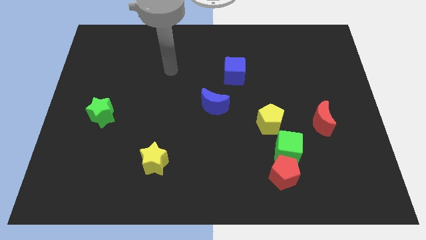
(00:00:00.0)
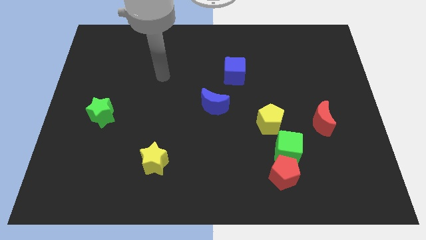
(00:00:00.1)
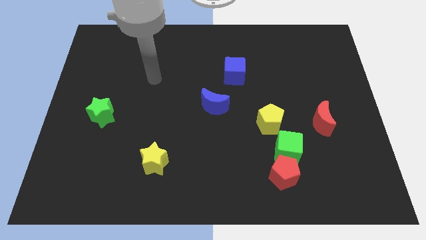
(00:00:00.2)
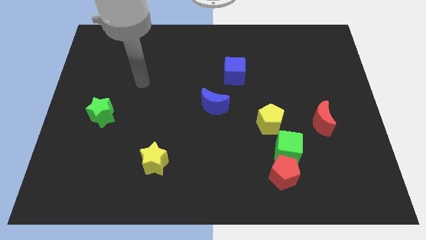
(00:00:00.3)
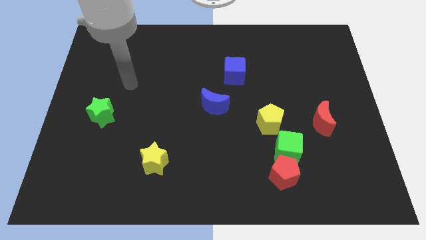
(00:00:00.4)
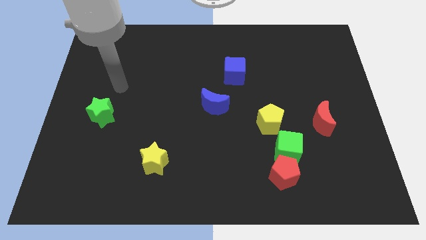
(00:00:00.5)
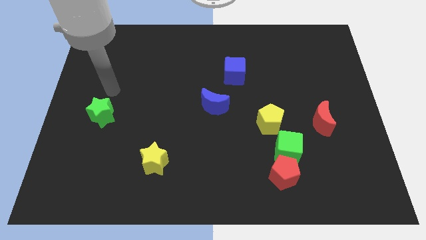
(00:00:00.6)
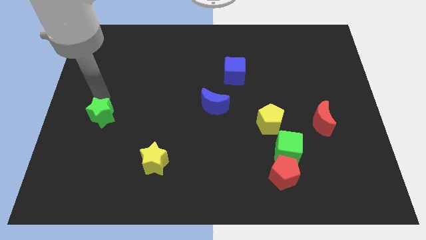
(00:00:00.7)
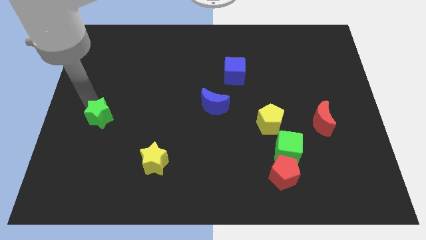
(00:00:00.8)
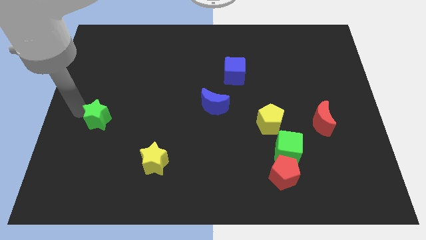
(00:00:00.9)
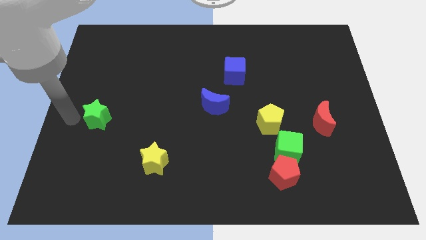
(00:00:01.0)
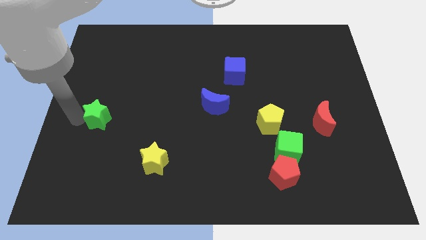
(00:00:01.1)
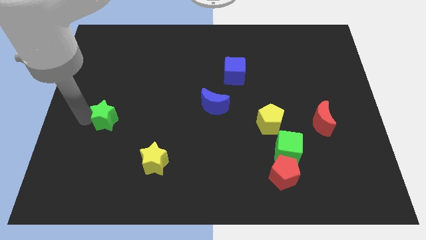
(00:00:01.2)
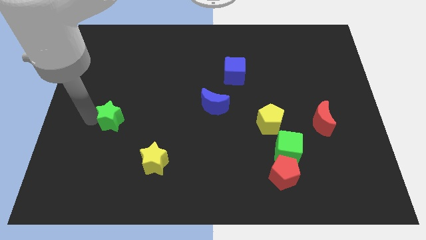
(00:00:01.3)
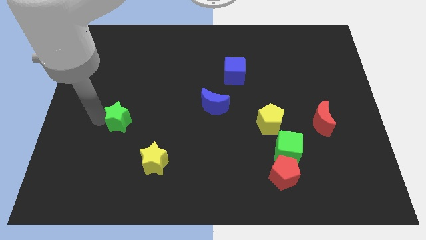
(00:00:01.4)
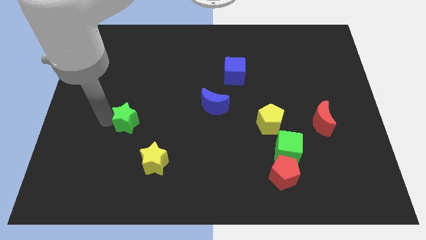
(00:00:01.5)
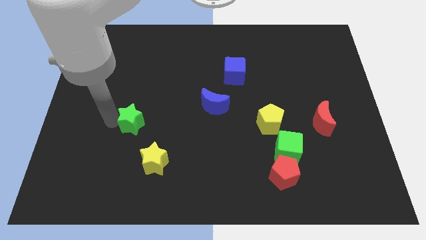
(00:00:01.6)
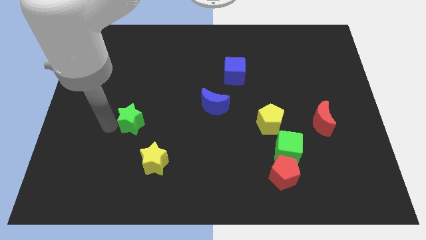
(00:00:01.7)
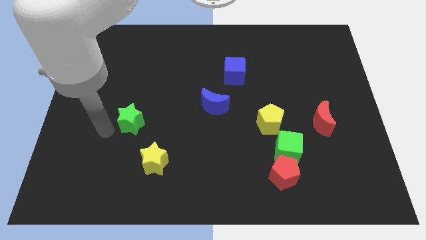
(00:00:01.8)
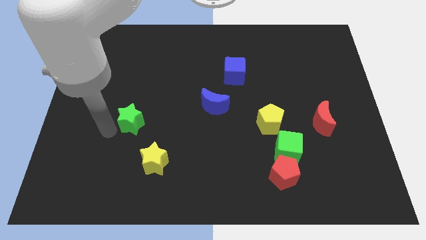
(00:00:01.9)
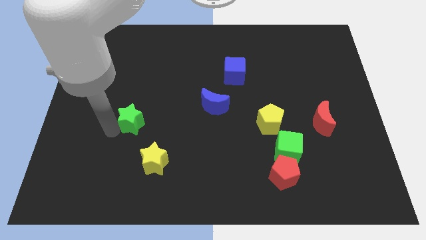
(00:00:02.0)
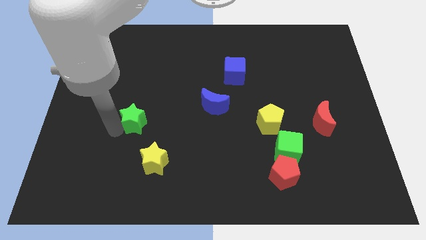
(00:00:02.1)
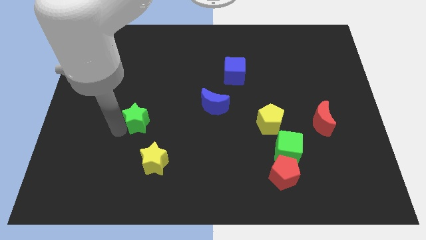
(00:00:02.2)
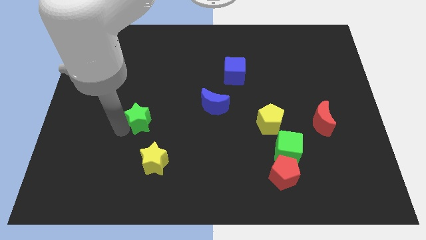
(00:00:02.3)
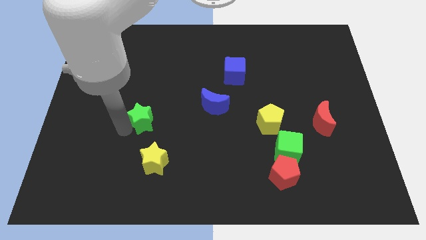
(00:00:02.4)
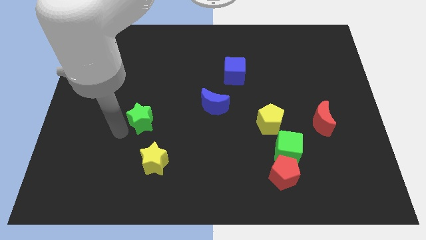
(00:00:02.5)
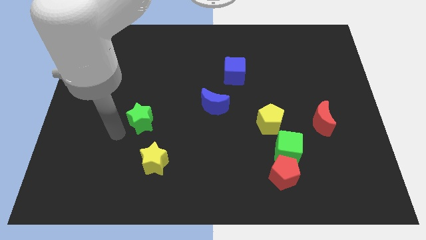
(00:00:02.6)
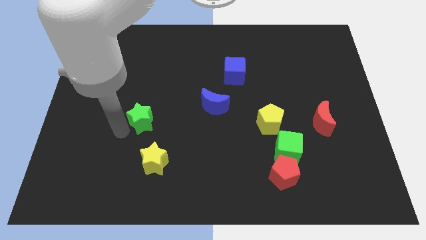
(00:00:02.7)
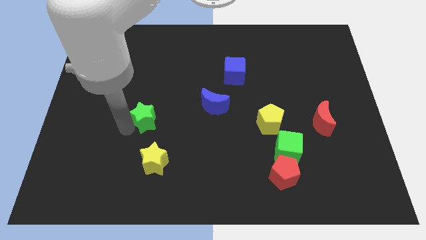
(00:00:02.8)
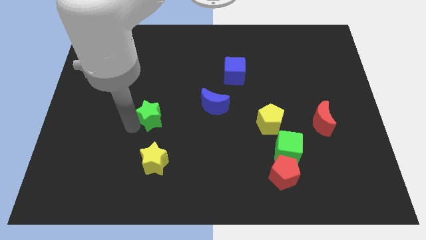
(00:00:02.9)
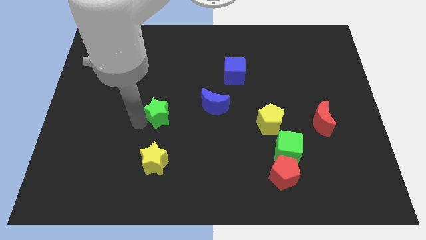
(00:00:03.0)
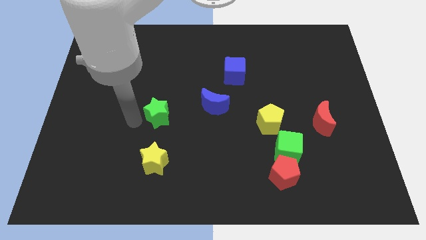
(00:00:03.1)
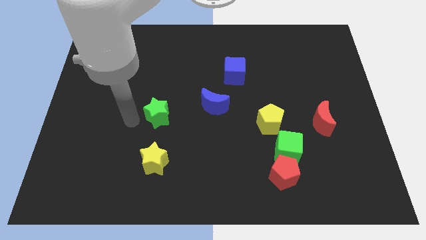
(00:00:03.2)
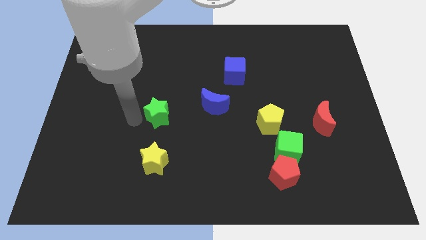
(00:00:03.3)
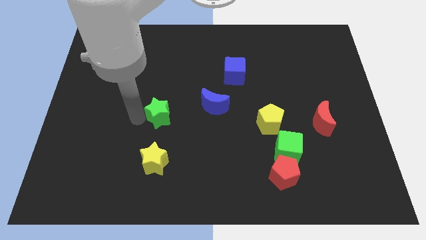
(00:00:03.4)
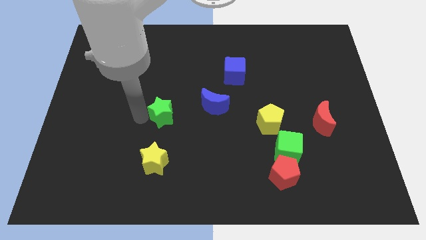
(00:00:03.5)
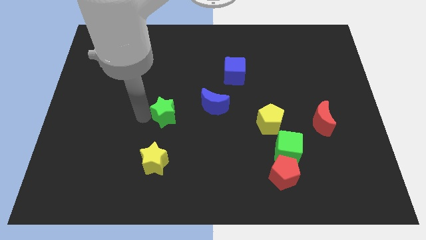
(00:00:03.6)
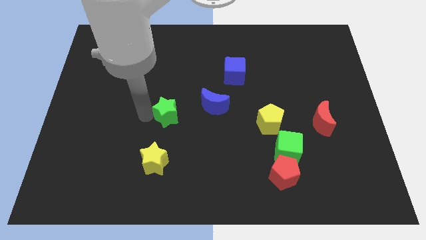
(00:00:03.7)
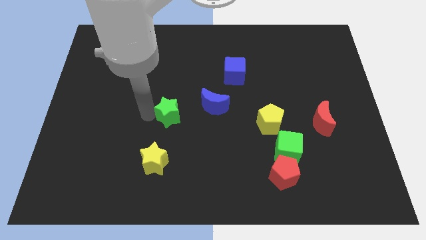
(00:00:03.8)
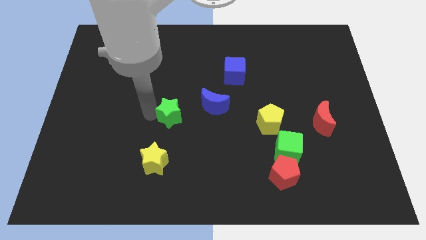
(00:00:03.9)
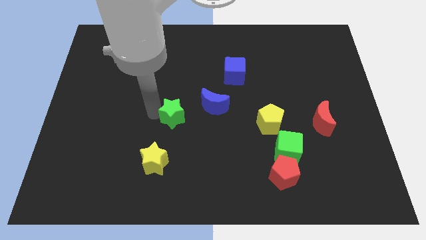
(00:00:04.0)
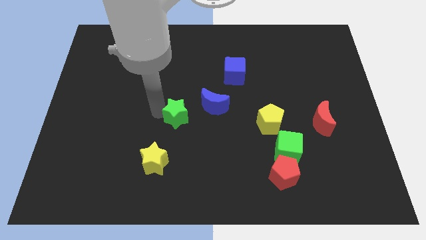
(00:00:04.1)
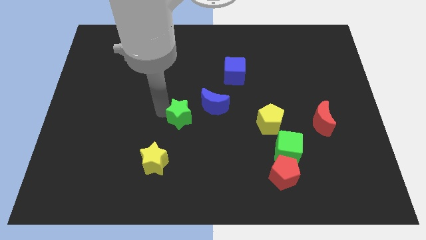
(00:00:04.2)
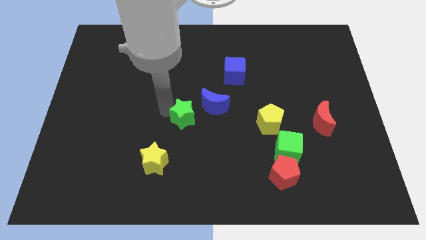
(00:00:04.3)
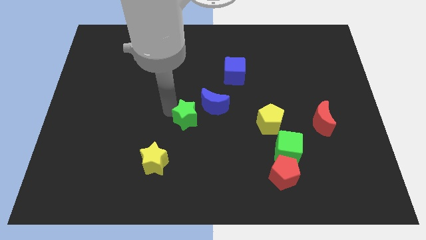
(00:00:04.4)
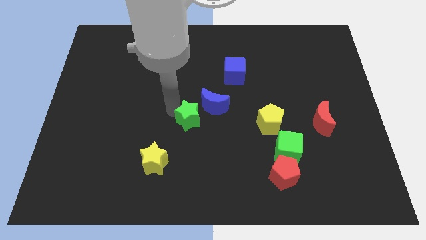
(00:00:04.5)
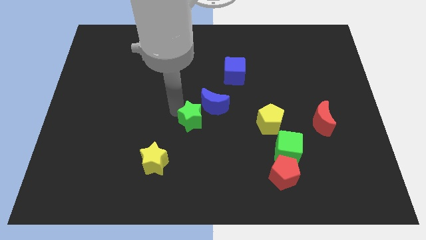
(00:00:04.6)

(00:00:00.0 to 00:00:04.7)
push the green star towards the blue moon

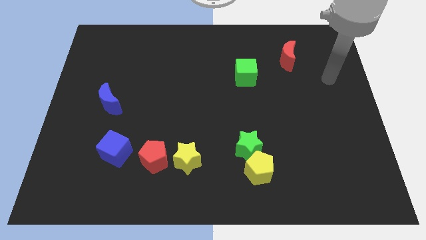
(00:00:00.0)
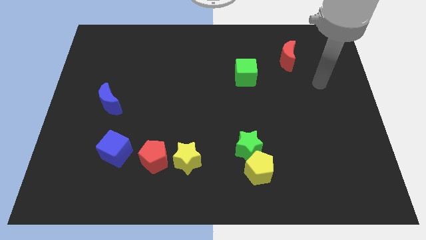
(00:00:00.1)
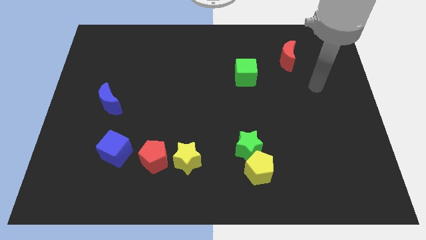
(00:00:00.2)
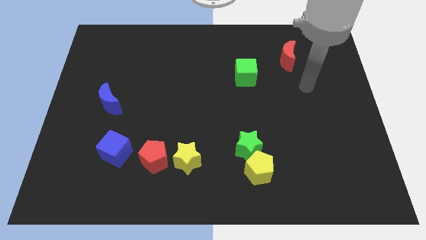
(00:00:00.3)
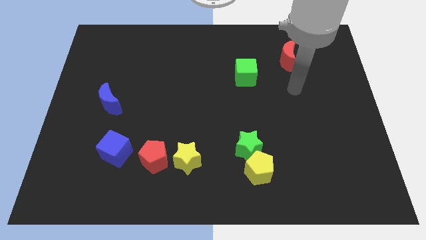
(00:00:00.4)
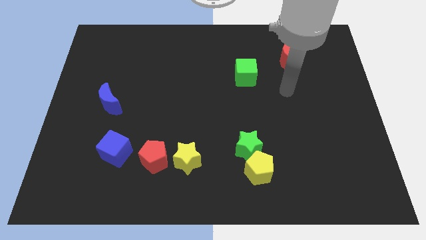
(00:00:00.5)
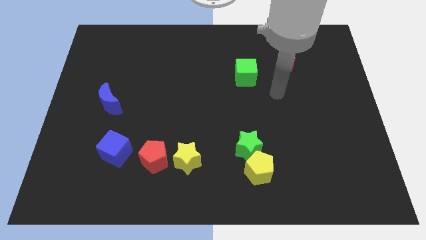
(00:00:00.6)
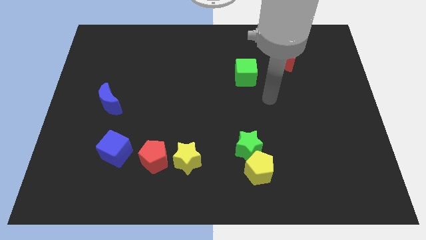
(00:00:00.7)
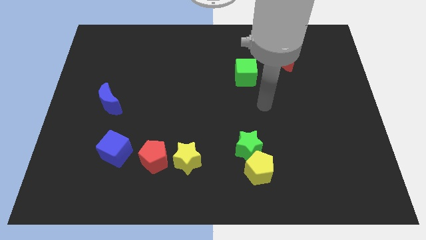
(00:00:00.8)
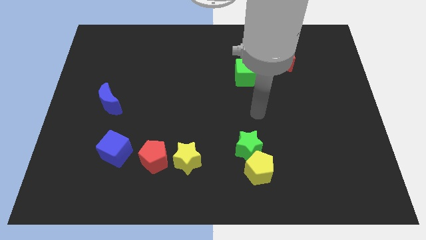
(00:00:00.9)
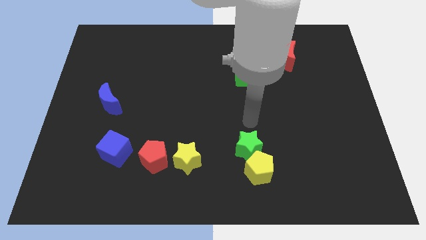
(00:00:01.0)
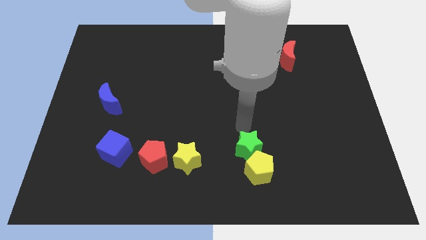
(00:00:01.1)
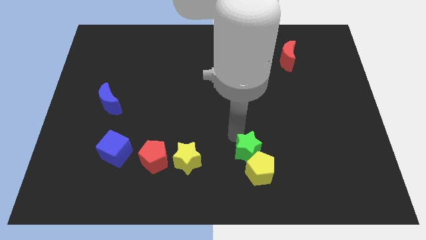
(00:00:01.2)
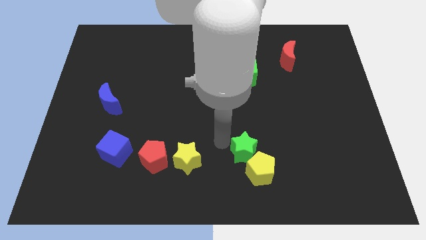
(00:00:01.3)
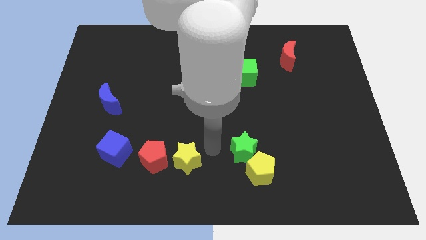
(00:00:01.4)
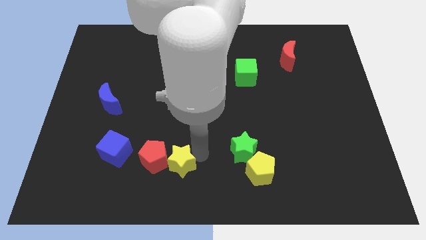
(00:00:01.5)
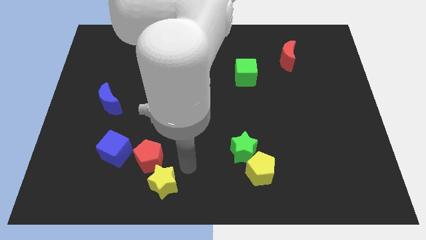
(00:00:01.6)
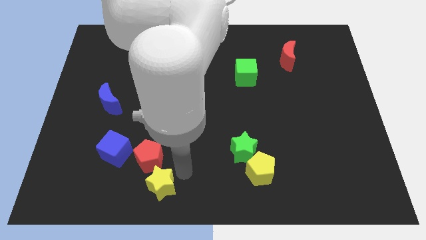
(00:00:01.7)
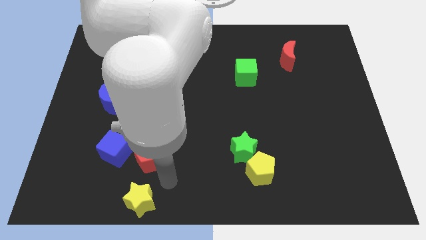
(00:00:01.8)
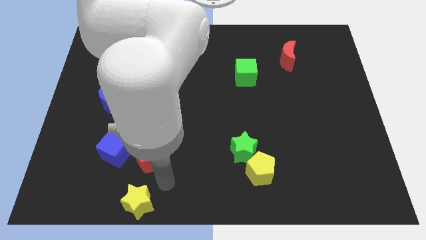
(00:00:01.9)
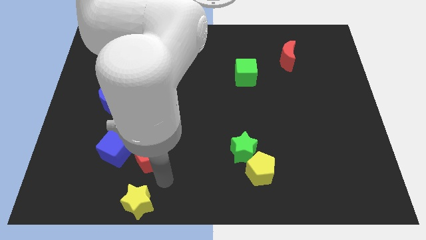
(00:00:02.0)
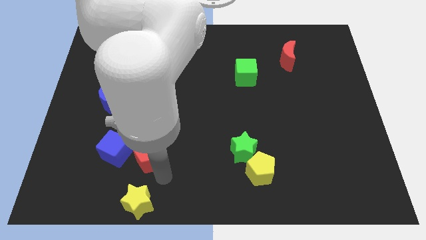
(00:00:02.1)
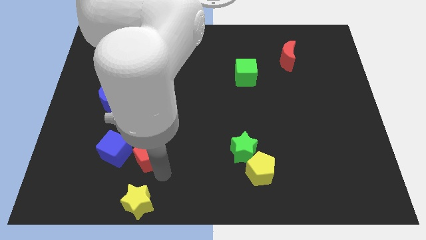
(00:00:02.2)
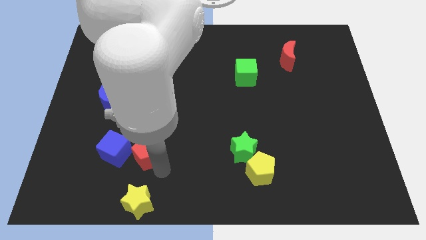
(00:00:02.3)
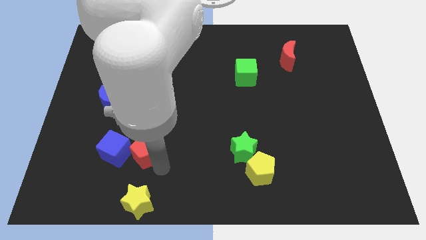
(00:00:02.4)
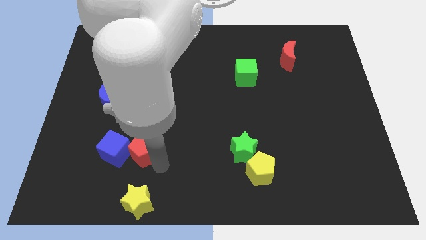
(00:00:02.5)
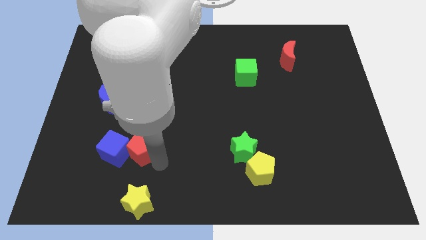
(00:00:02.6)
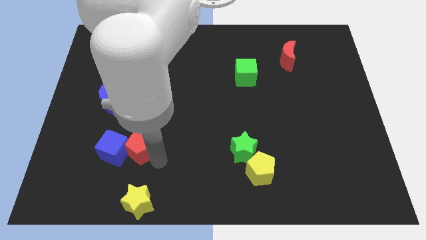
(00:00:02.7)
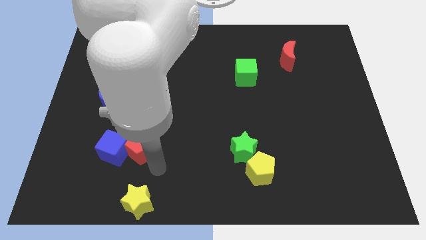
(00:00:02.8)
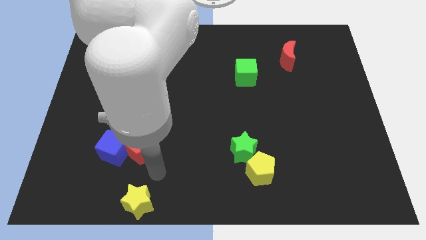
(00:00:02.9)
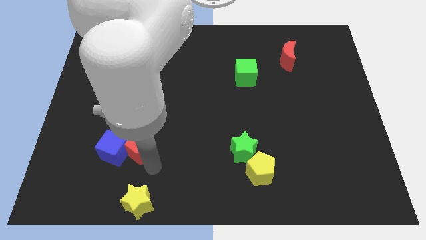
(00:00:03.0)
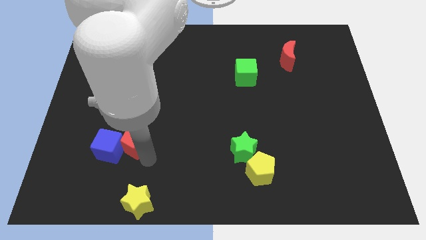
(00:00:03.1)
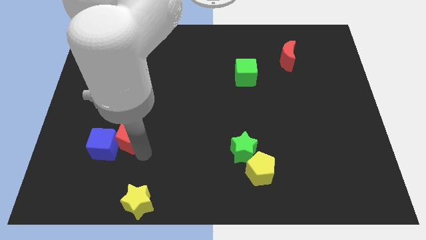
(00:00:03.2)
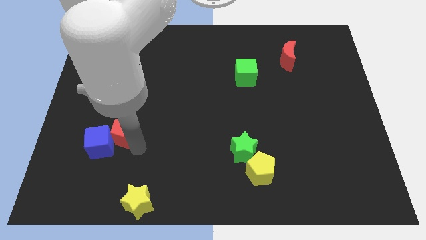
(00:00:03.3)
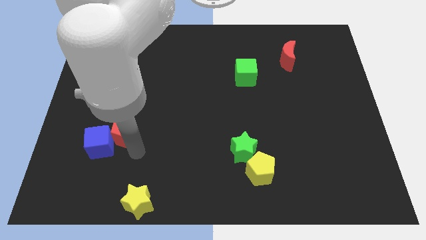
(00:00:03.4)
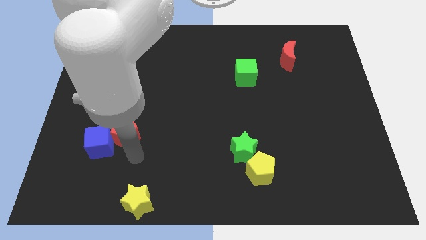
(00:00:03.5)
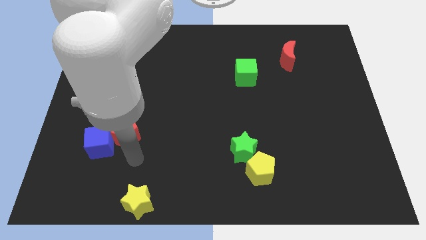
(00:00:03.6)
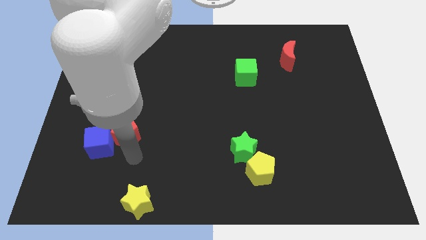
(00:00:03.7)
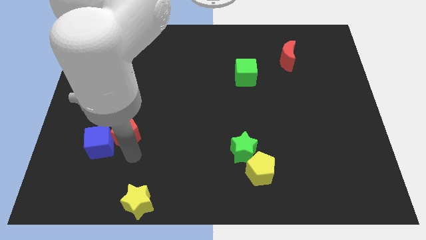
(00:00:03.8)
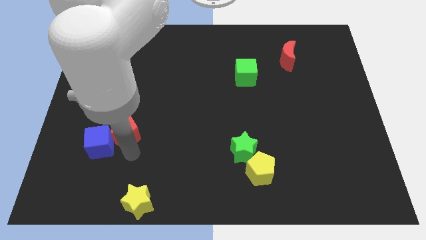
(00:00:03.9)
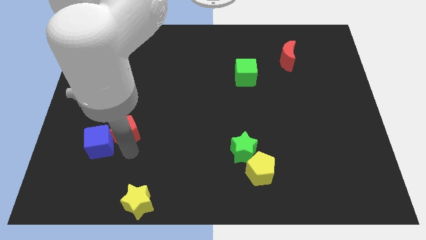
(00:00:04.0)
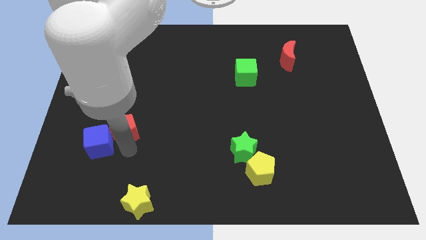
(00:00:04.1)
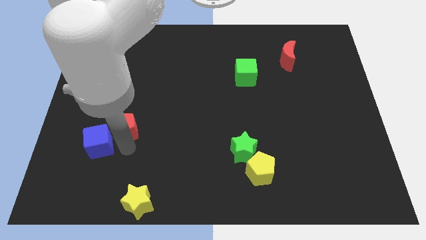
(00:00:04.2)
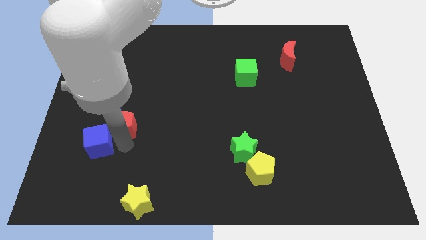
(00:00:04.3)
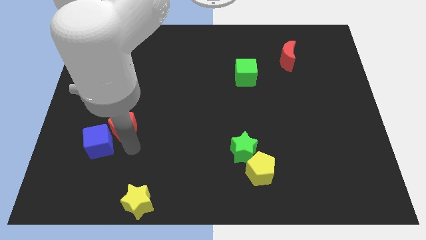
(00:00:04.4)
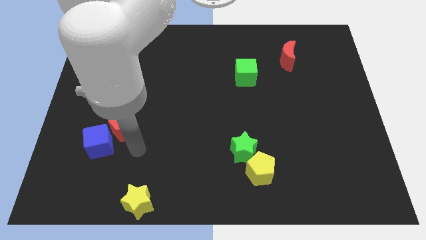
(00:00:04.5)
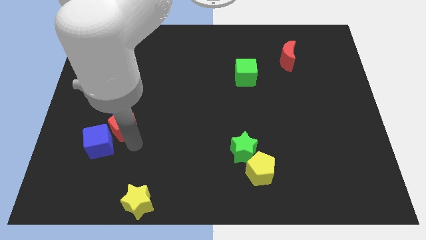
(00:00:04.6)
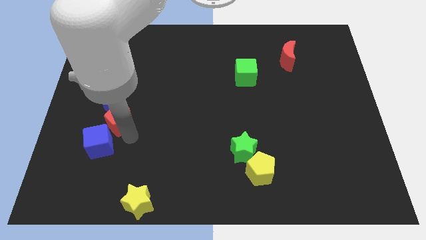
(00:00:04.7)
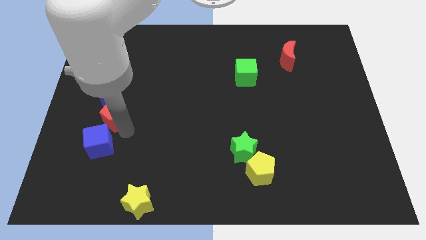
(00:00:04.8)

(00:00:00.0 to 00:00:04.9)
slide the red pentagon next to the blue moon
